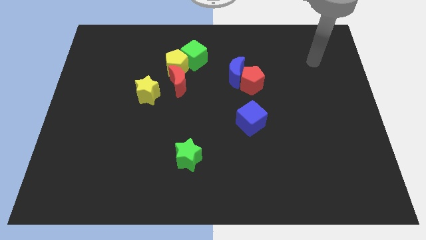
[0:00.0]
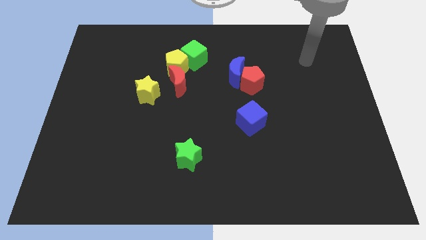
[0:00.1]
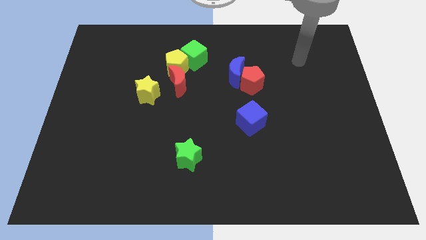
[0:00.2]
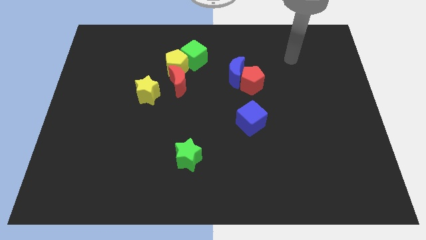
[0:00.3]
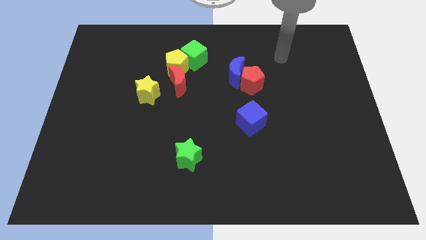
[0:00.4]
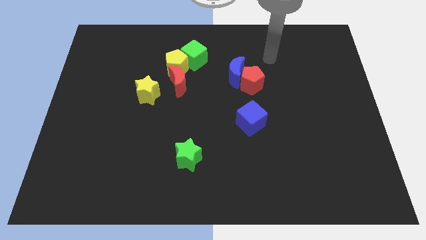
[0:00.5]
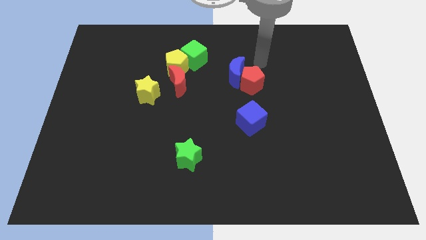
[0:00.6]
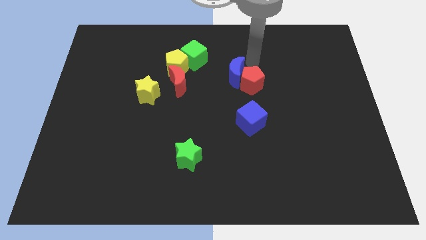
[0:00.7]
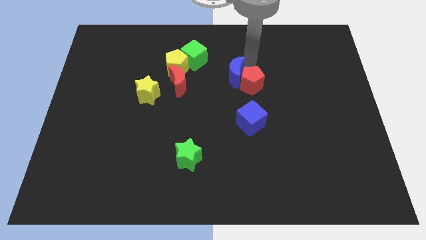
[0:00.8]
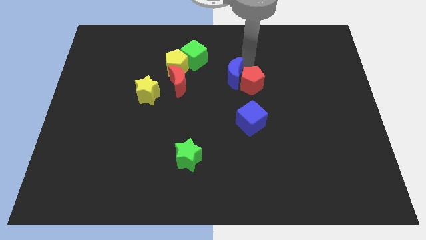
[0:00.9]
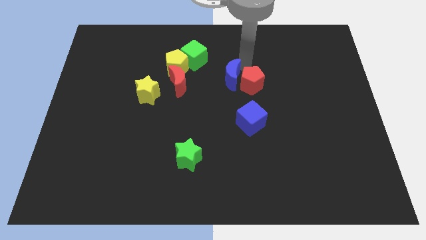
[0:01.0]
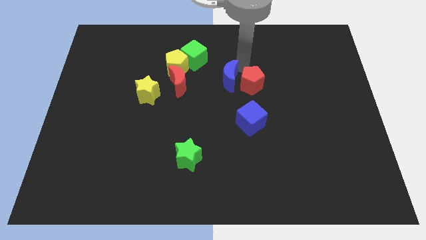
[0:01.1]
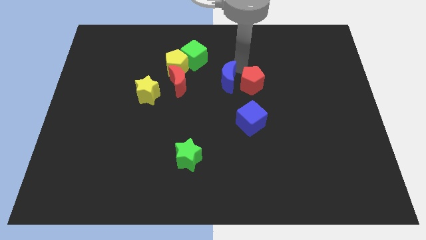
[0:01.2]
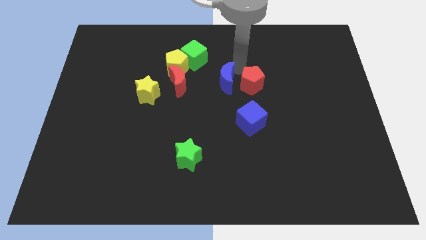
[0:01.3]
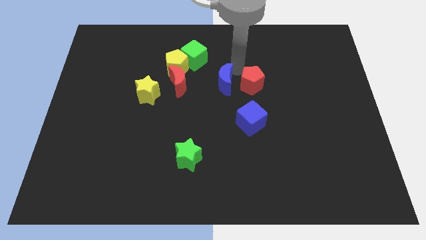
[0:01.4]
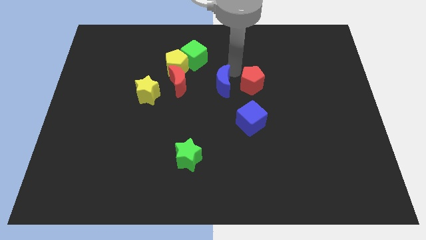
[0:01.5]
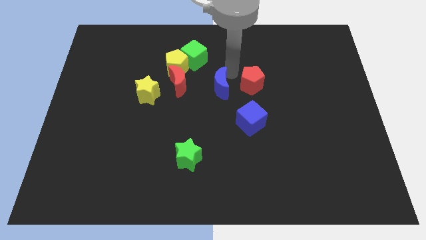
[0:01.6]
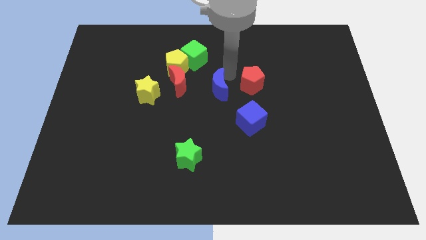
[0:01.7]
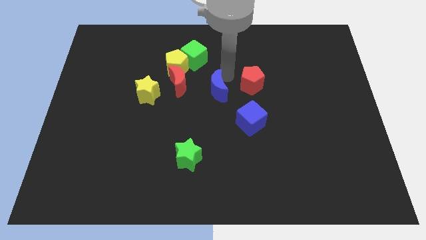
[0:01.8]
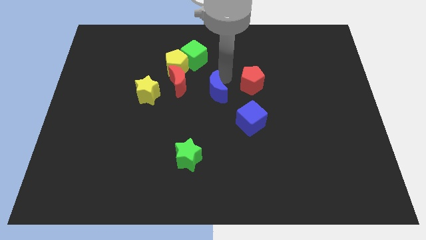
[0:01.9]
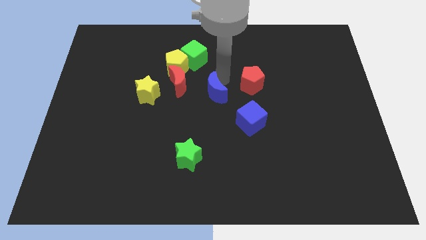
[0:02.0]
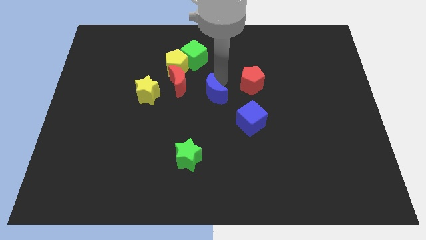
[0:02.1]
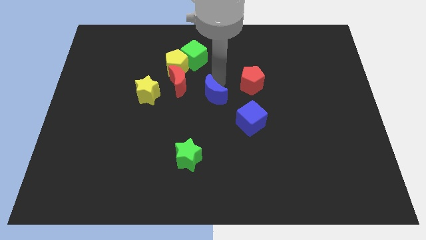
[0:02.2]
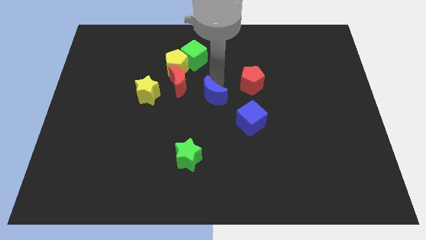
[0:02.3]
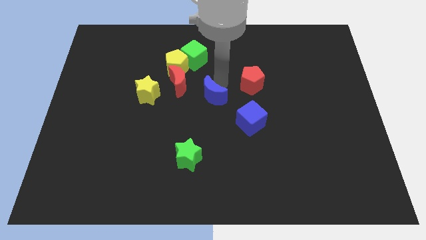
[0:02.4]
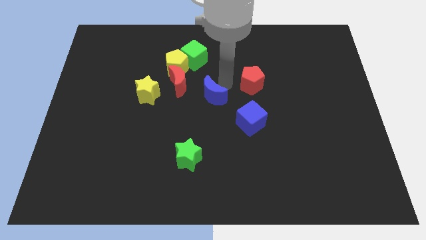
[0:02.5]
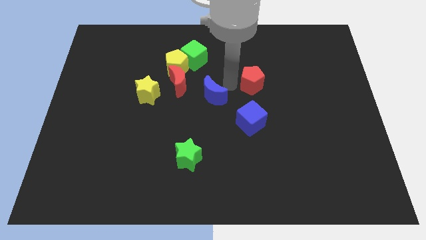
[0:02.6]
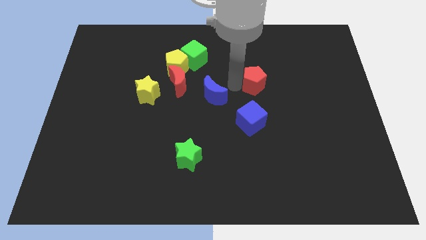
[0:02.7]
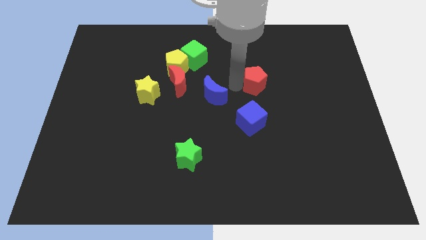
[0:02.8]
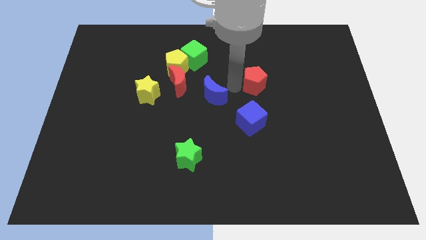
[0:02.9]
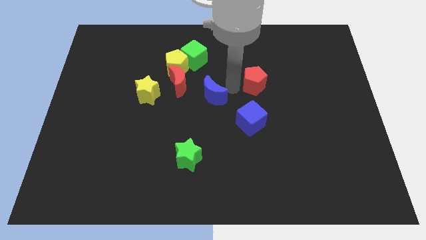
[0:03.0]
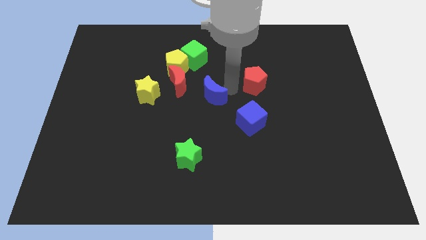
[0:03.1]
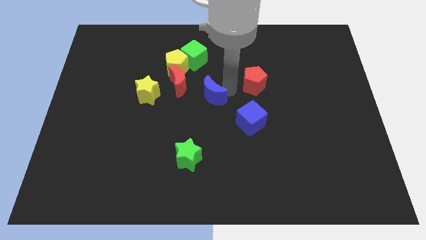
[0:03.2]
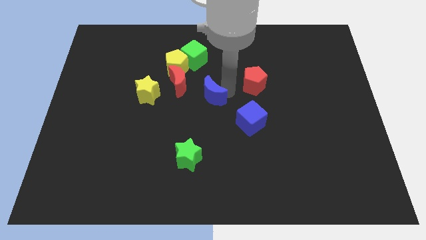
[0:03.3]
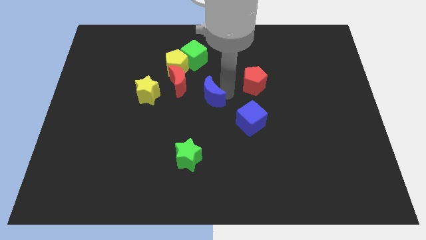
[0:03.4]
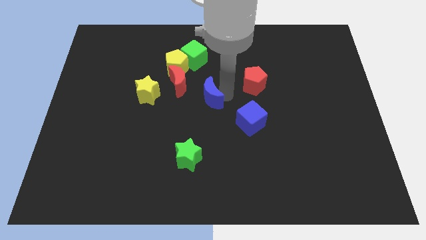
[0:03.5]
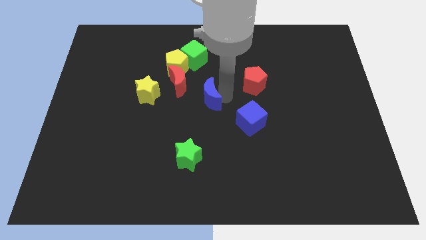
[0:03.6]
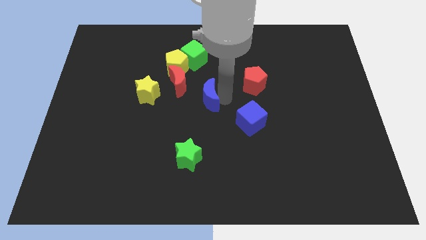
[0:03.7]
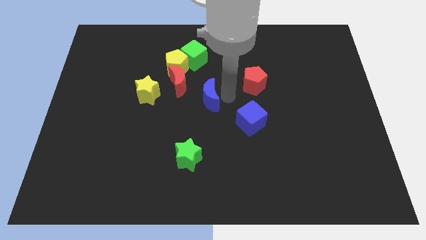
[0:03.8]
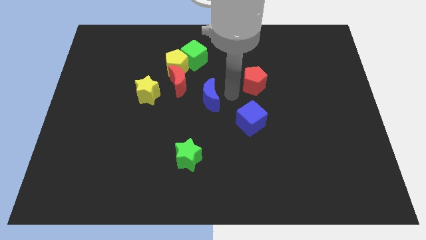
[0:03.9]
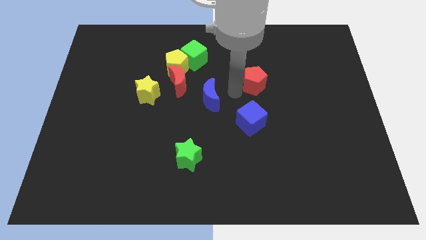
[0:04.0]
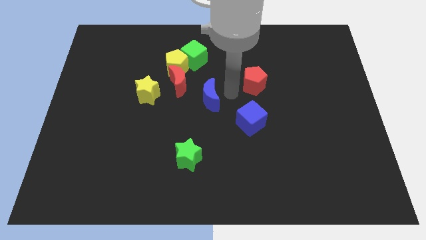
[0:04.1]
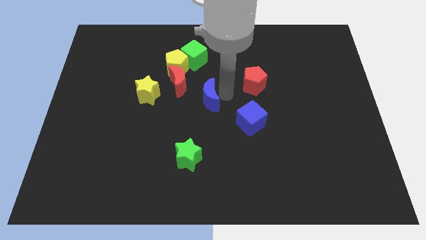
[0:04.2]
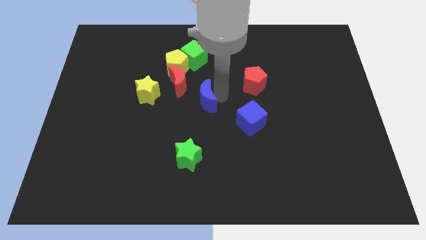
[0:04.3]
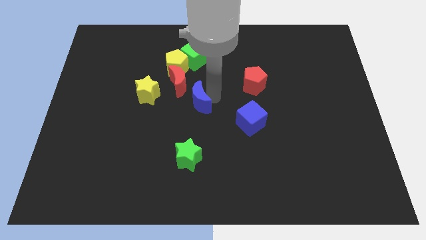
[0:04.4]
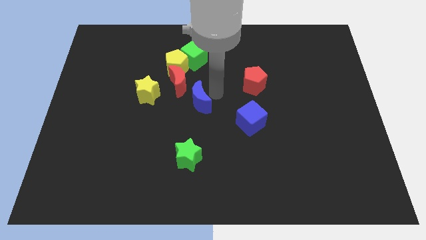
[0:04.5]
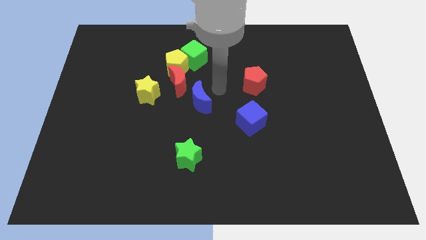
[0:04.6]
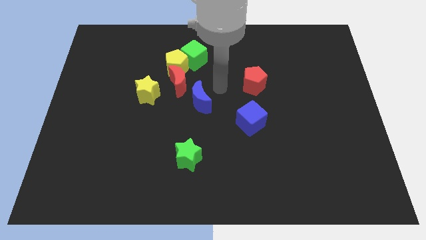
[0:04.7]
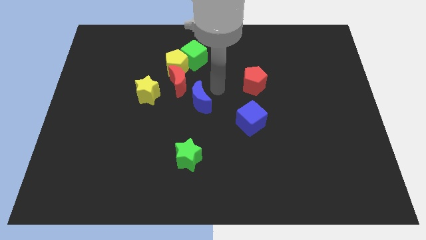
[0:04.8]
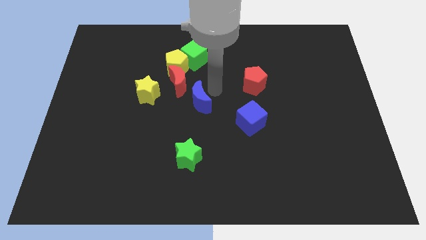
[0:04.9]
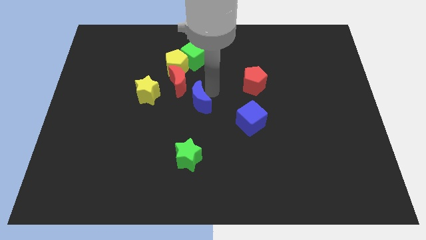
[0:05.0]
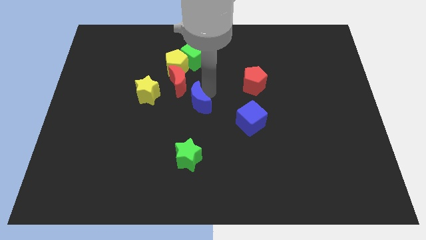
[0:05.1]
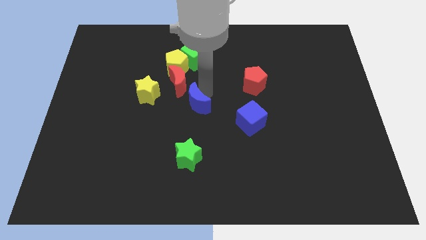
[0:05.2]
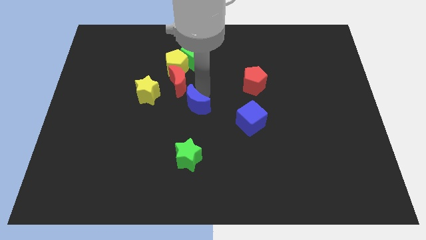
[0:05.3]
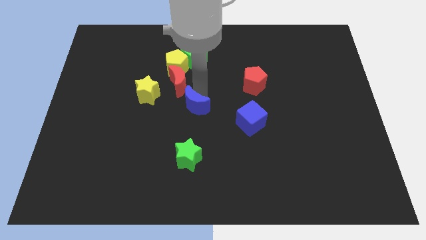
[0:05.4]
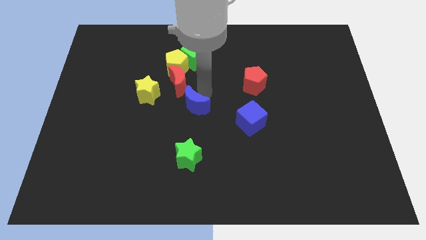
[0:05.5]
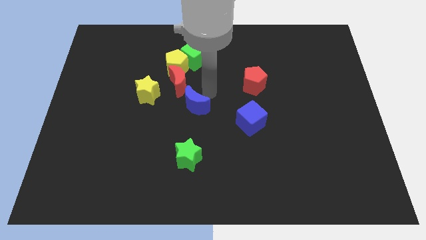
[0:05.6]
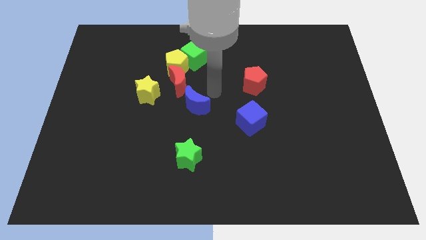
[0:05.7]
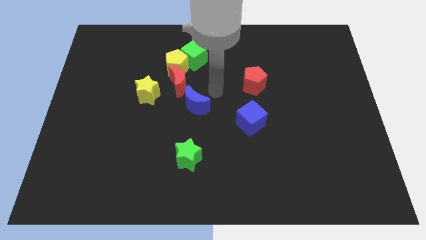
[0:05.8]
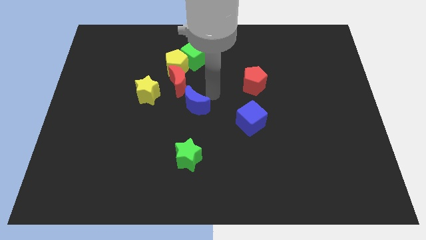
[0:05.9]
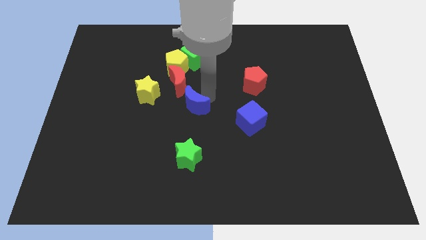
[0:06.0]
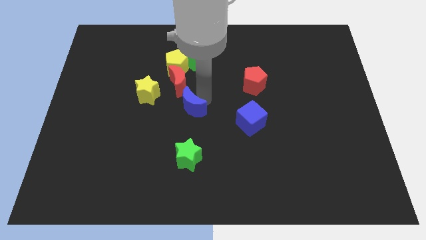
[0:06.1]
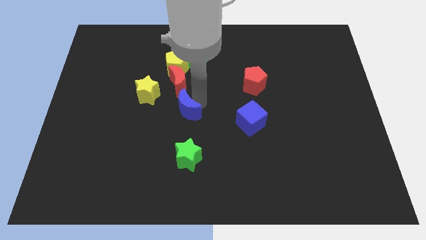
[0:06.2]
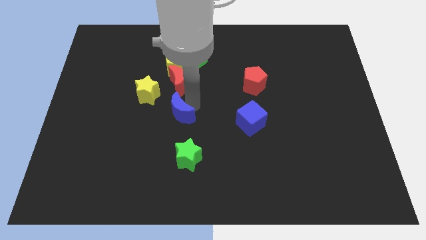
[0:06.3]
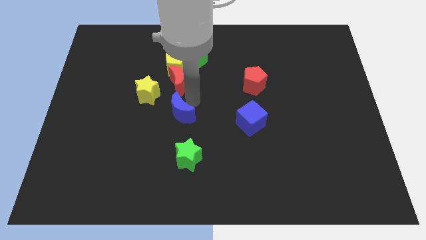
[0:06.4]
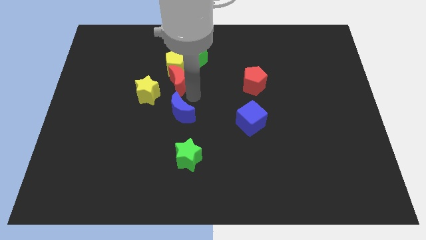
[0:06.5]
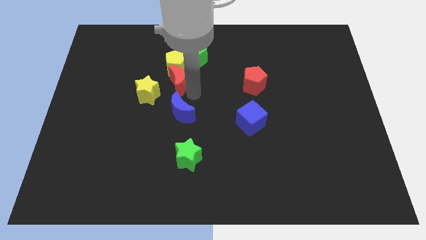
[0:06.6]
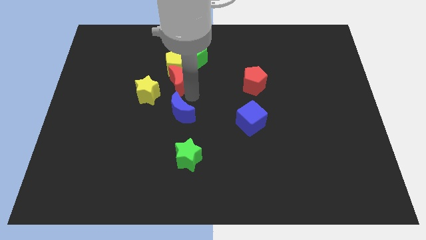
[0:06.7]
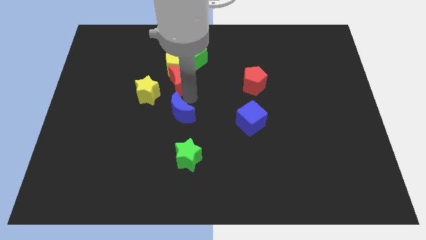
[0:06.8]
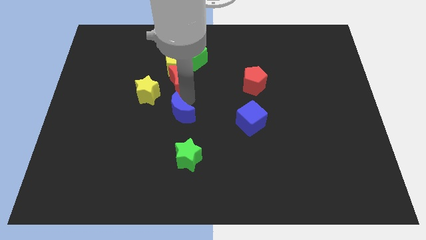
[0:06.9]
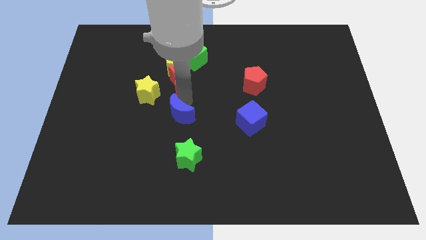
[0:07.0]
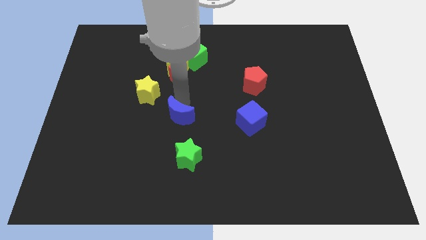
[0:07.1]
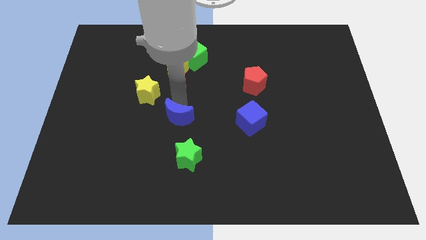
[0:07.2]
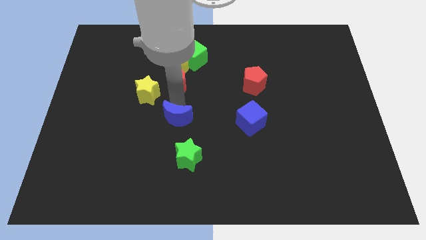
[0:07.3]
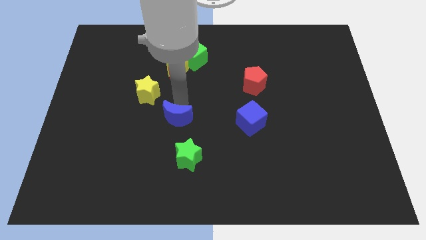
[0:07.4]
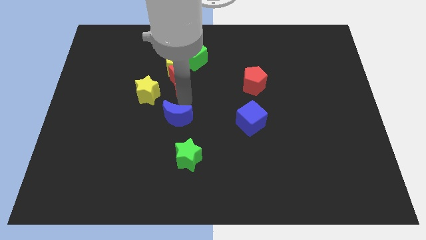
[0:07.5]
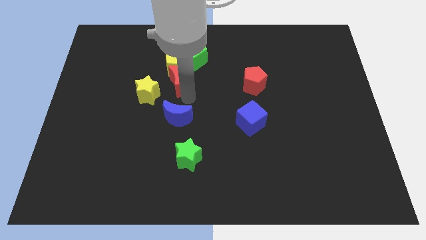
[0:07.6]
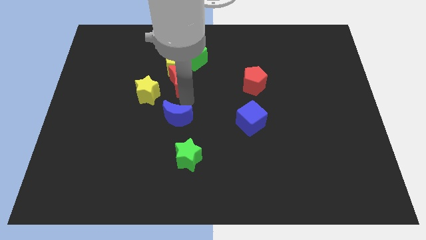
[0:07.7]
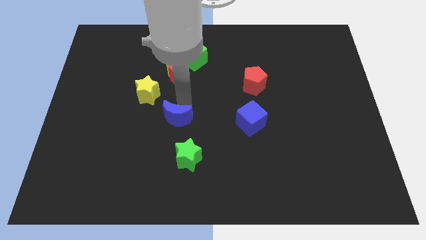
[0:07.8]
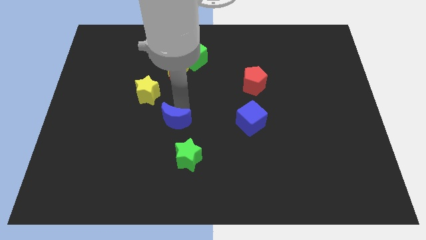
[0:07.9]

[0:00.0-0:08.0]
slide the blue moon down and to the left diagonally

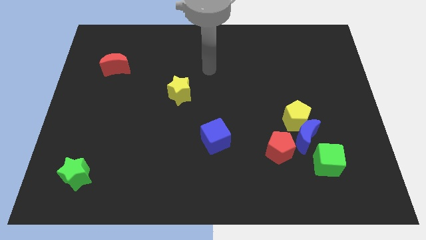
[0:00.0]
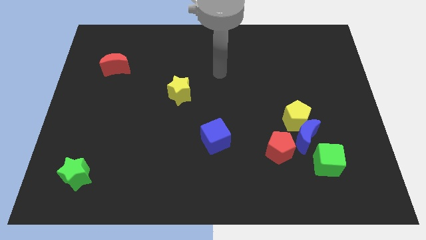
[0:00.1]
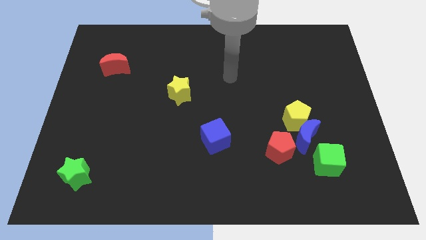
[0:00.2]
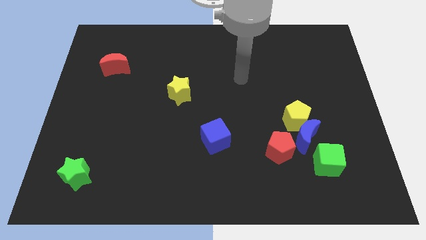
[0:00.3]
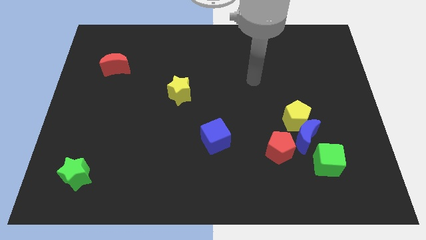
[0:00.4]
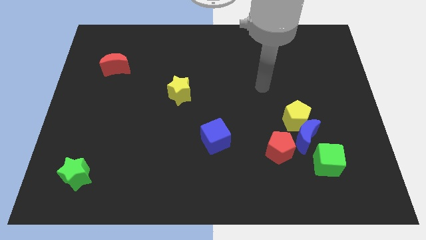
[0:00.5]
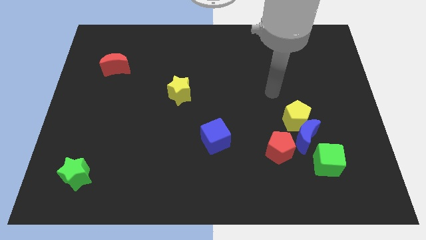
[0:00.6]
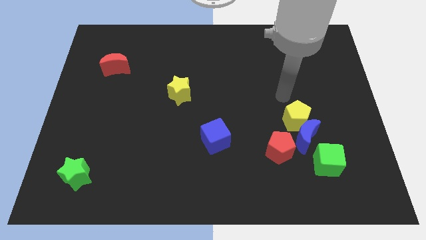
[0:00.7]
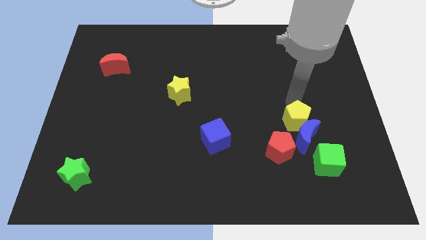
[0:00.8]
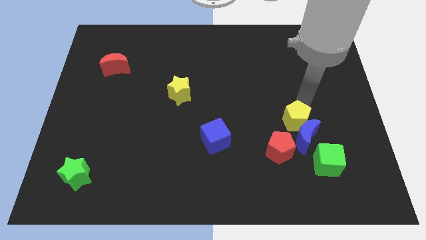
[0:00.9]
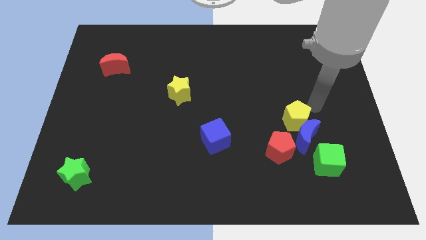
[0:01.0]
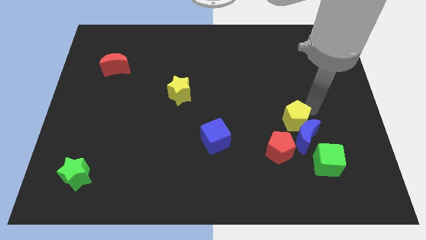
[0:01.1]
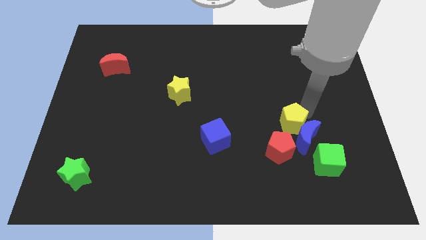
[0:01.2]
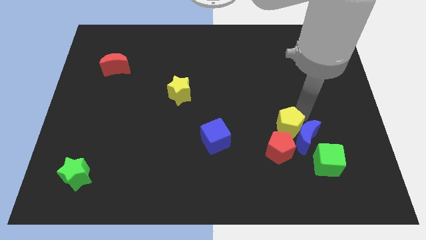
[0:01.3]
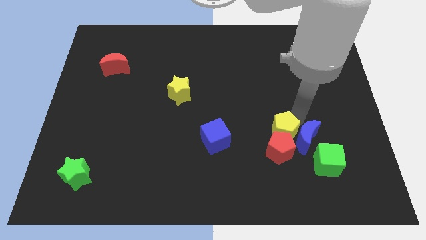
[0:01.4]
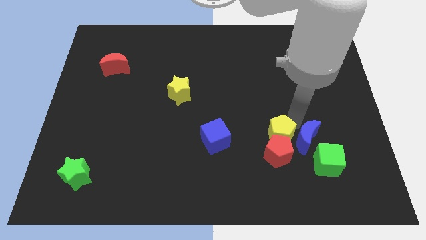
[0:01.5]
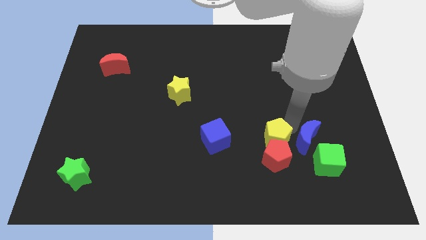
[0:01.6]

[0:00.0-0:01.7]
slightly move the yellow pentagon downwards and left diagonally
